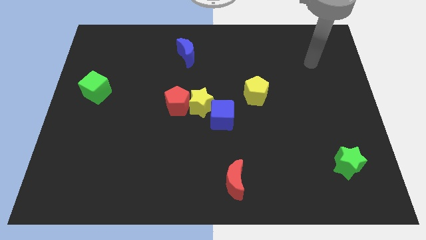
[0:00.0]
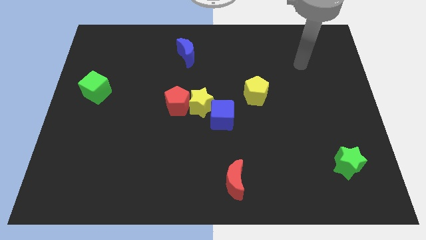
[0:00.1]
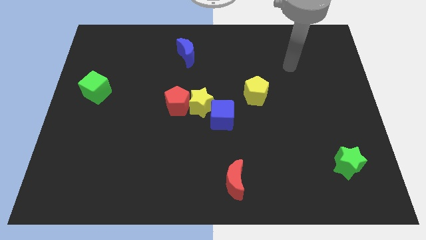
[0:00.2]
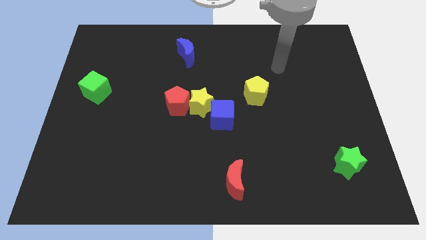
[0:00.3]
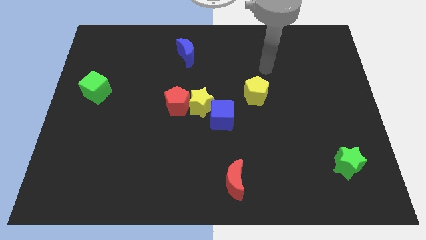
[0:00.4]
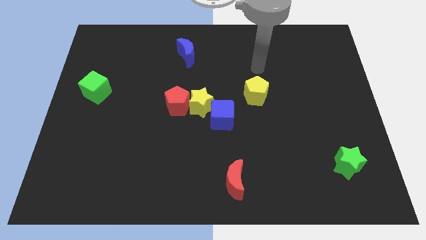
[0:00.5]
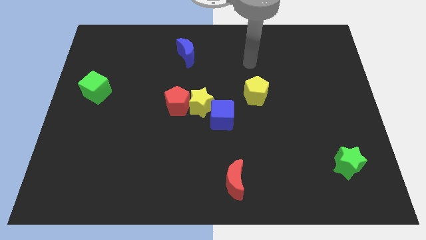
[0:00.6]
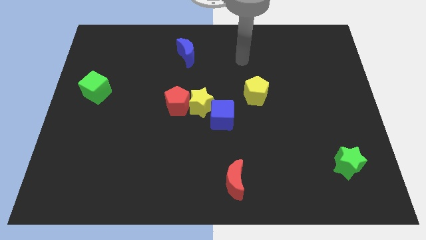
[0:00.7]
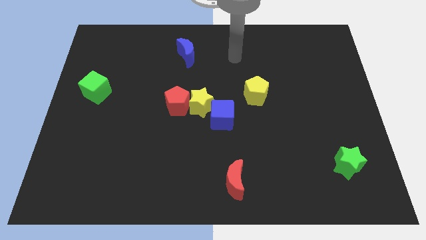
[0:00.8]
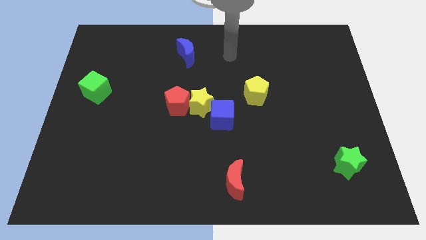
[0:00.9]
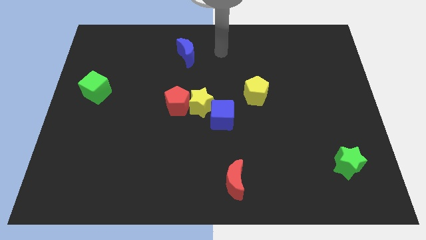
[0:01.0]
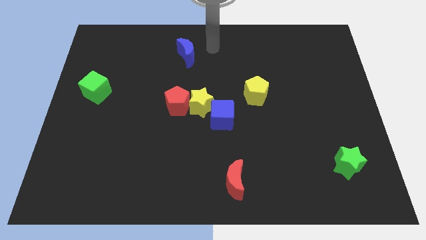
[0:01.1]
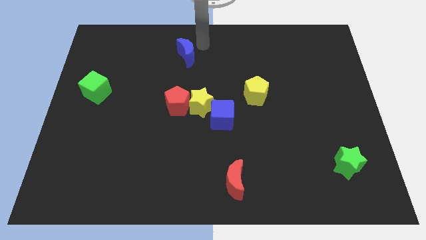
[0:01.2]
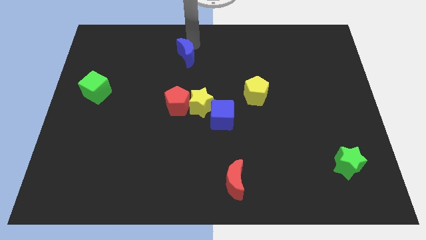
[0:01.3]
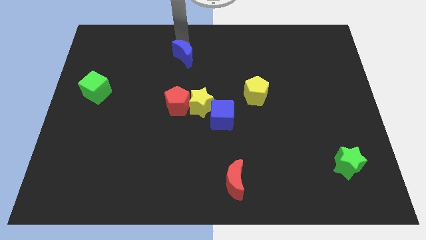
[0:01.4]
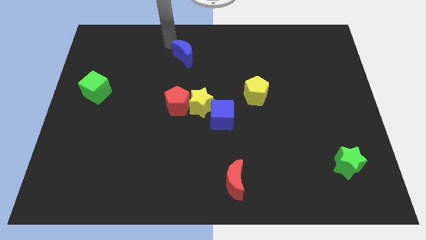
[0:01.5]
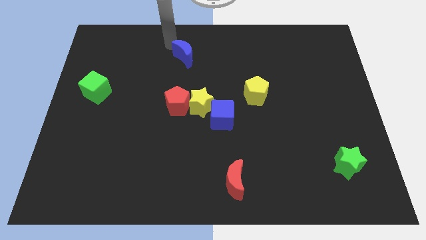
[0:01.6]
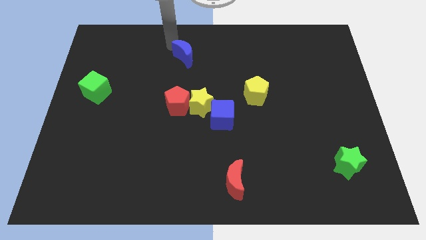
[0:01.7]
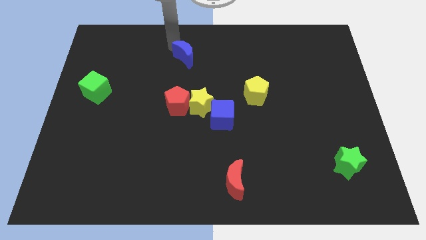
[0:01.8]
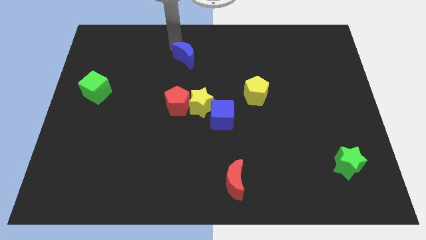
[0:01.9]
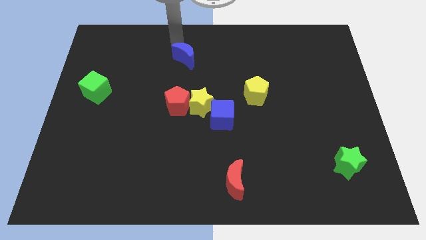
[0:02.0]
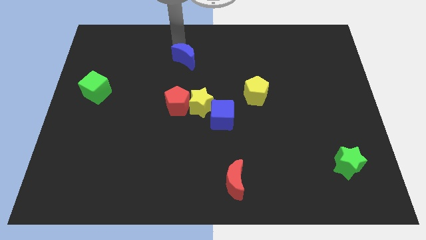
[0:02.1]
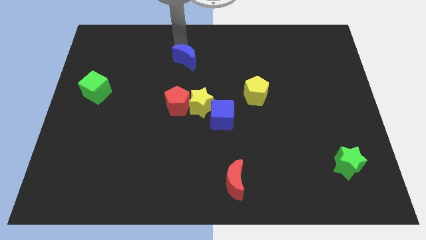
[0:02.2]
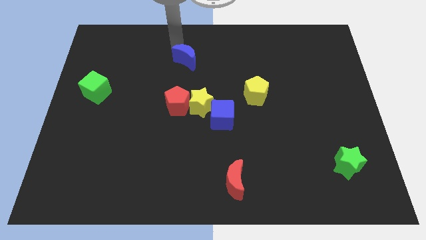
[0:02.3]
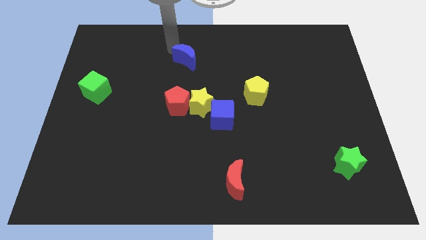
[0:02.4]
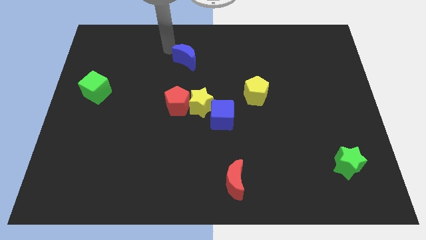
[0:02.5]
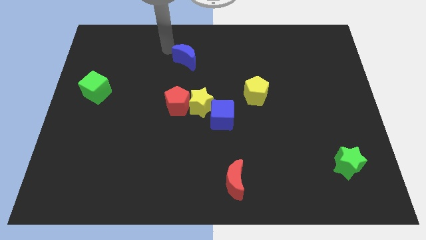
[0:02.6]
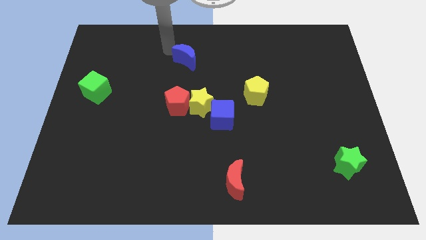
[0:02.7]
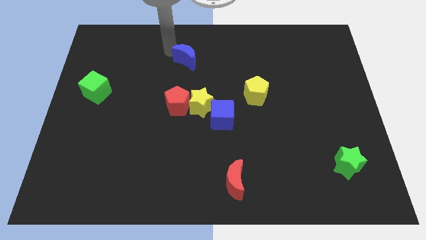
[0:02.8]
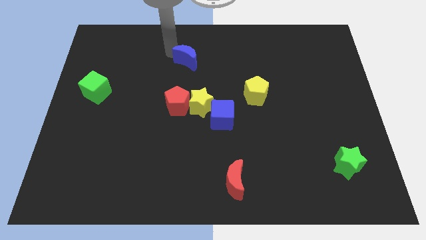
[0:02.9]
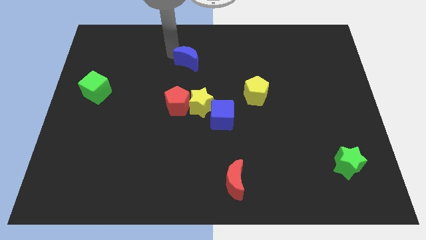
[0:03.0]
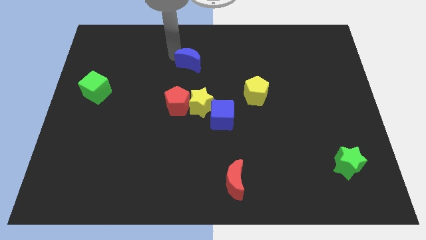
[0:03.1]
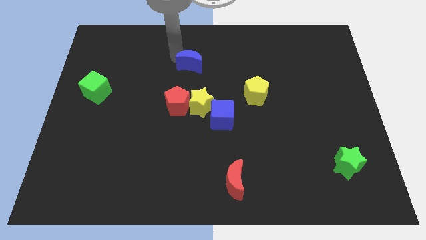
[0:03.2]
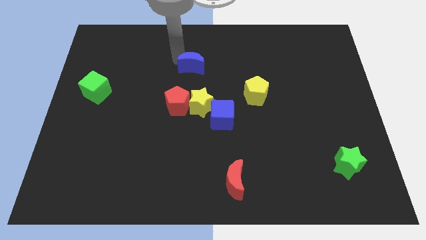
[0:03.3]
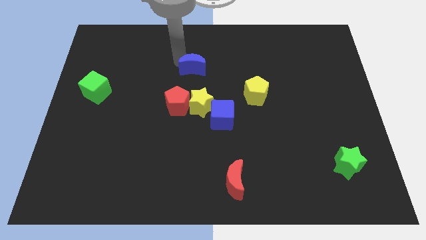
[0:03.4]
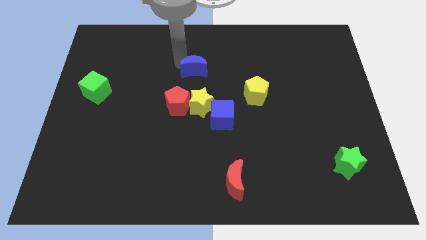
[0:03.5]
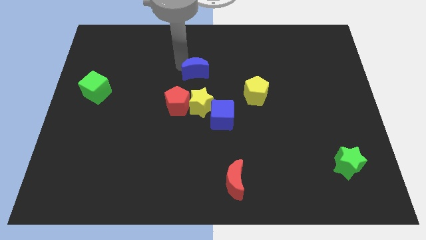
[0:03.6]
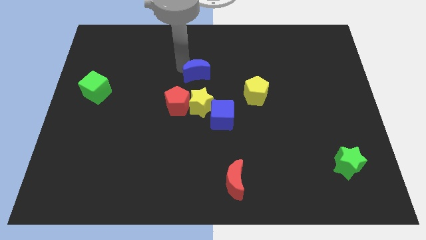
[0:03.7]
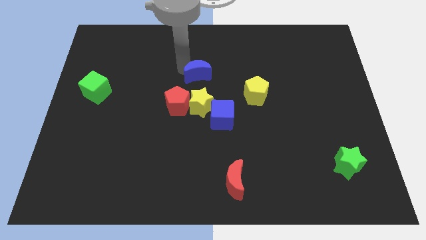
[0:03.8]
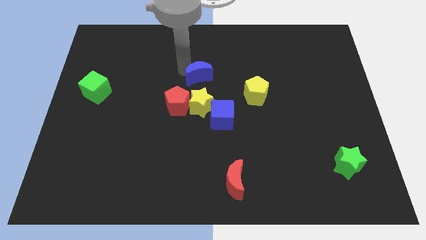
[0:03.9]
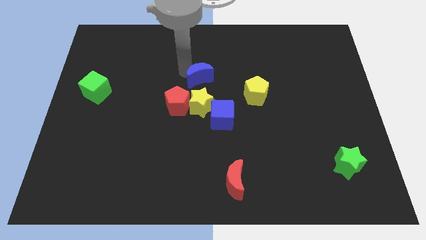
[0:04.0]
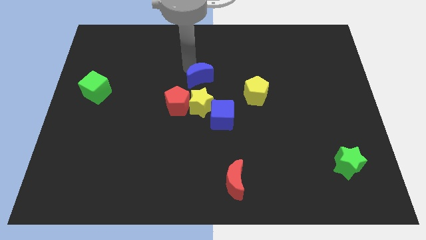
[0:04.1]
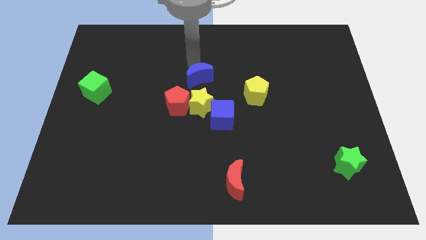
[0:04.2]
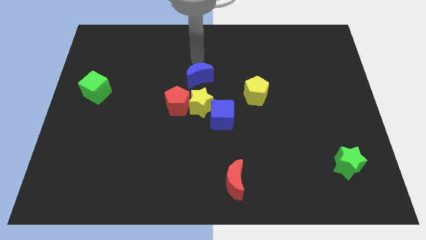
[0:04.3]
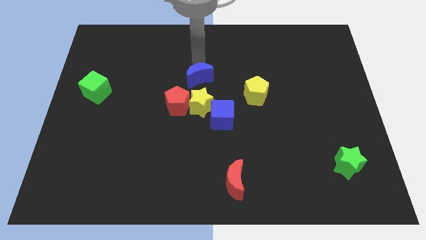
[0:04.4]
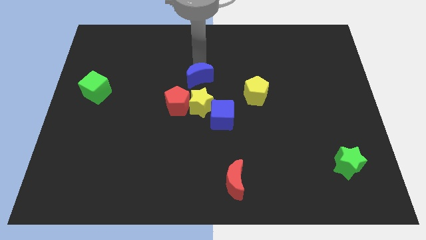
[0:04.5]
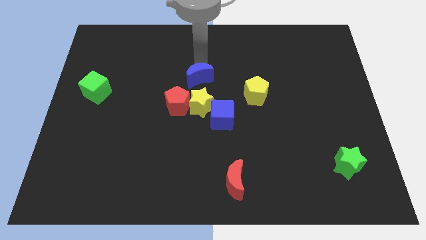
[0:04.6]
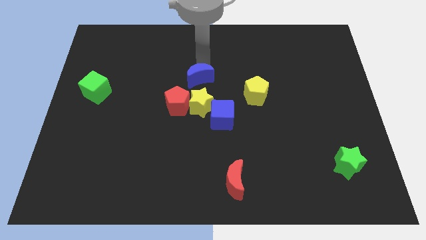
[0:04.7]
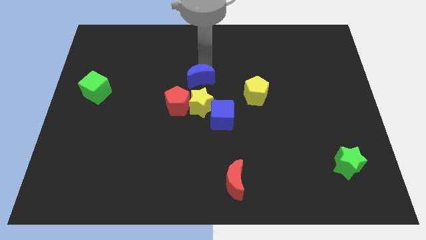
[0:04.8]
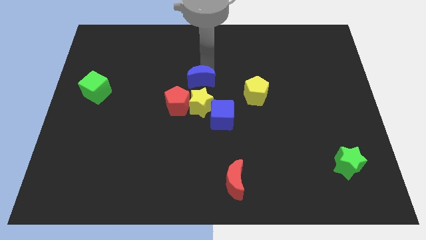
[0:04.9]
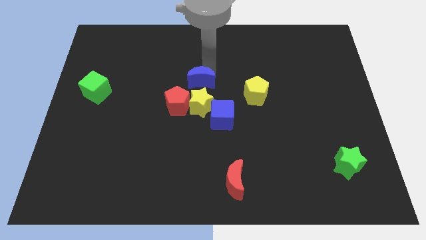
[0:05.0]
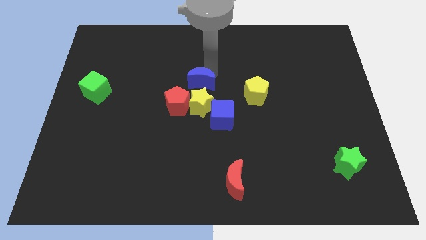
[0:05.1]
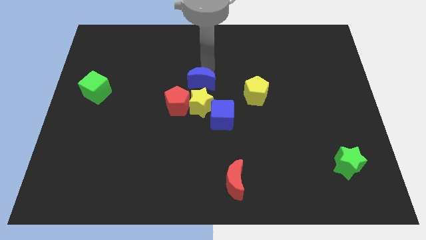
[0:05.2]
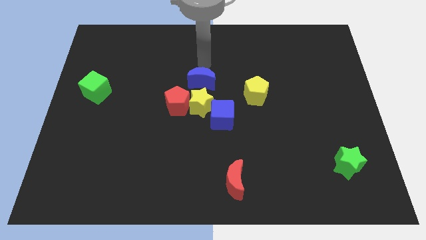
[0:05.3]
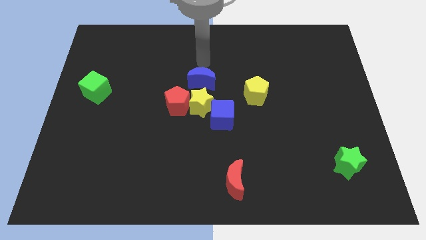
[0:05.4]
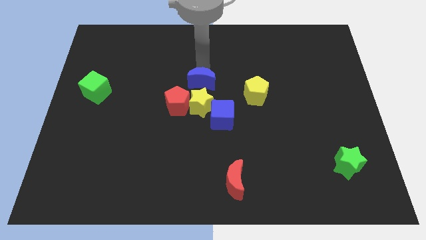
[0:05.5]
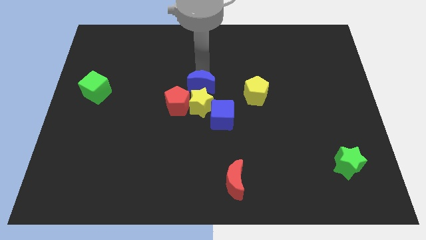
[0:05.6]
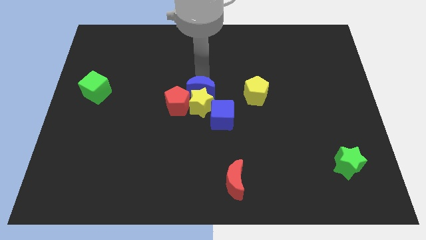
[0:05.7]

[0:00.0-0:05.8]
put the blue moon close to the yellow star

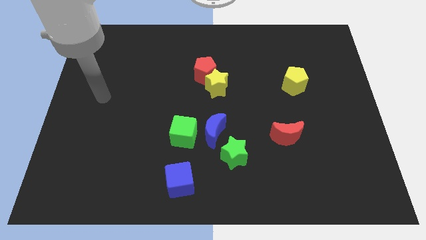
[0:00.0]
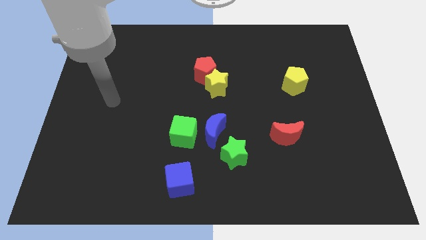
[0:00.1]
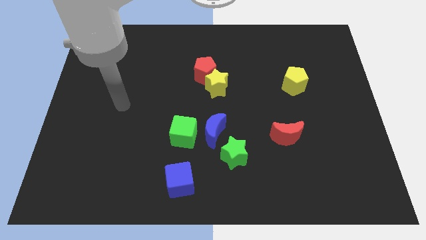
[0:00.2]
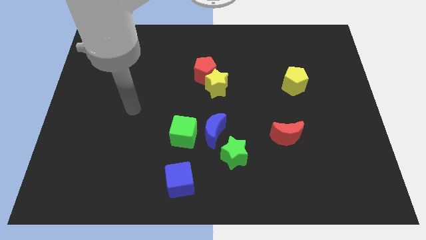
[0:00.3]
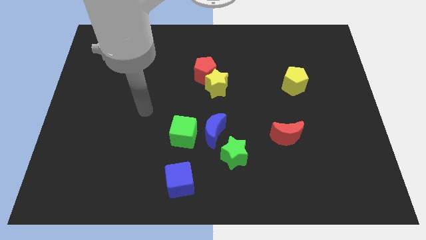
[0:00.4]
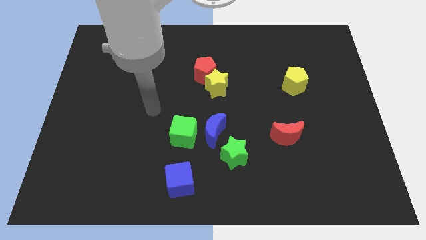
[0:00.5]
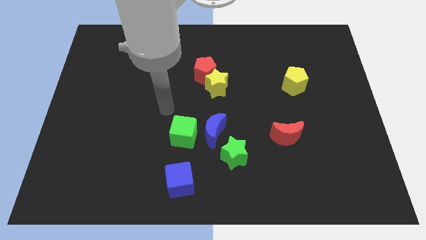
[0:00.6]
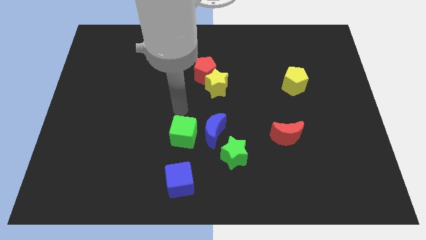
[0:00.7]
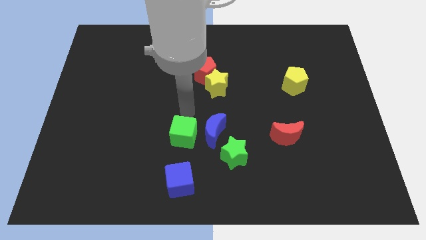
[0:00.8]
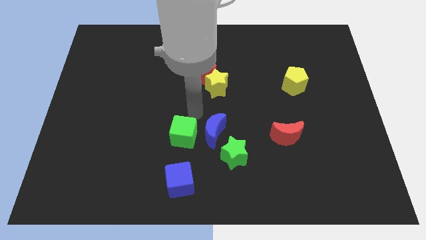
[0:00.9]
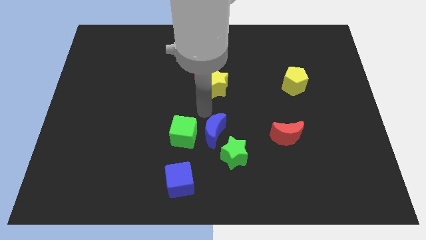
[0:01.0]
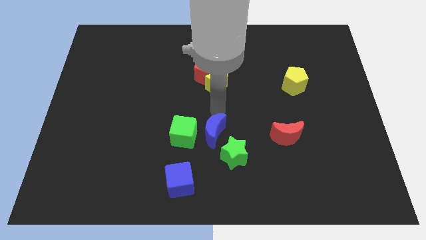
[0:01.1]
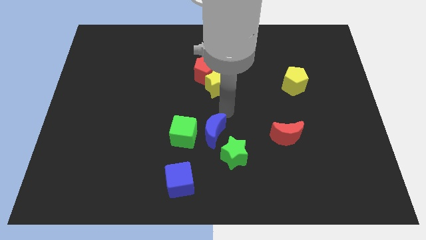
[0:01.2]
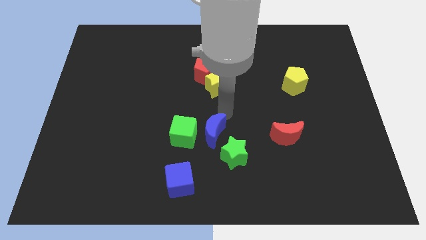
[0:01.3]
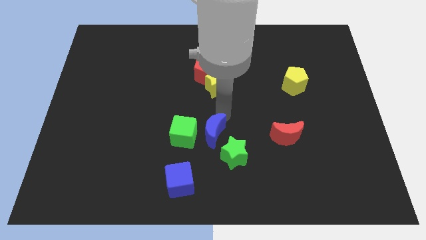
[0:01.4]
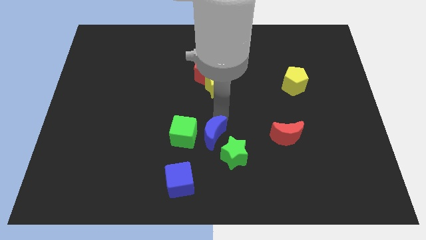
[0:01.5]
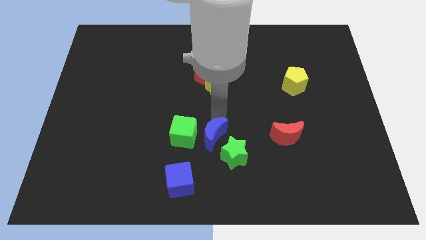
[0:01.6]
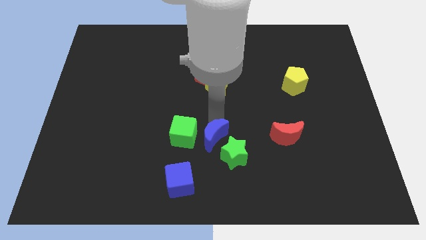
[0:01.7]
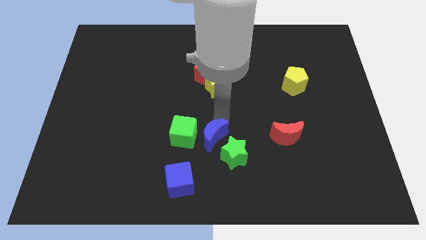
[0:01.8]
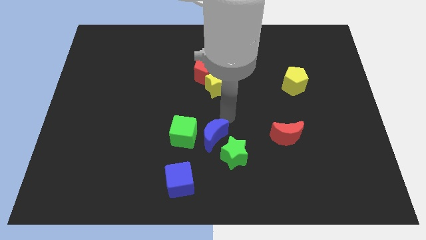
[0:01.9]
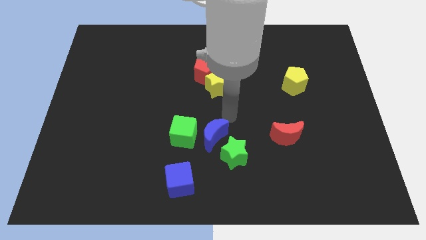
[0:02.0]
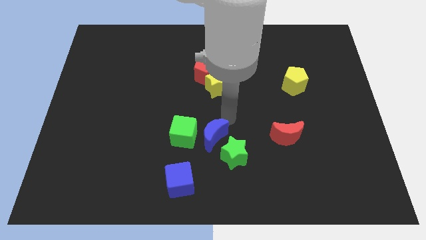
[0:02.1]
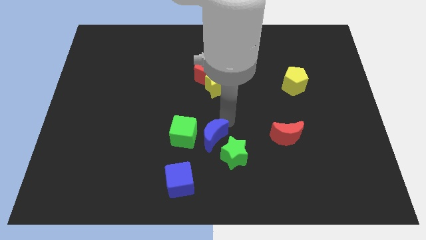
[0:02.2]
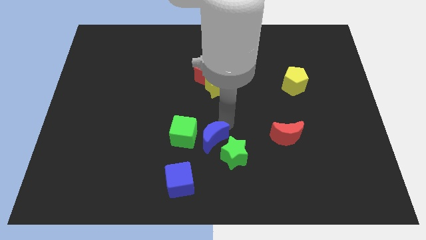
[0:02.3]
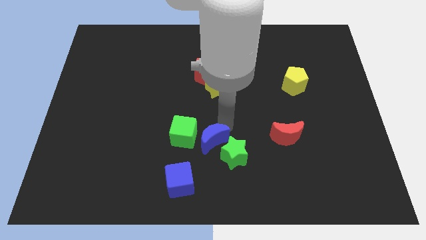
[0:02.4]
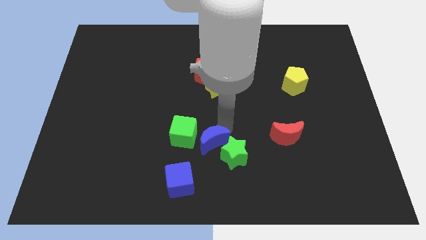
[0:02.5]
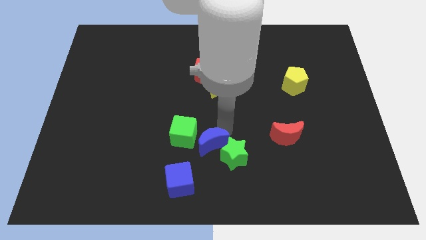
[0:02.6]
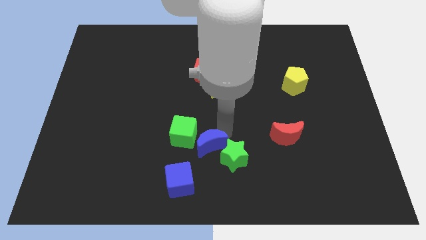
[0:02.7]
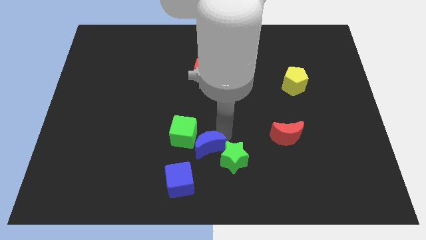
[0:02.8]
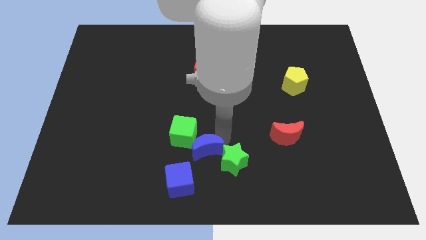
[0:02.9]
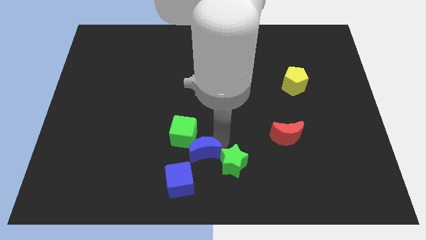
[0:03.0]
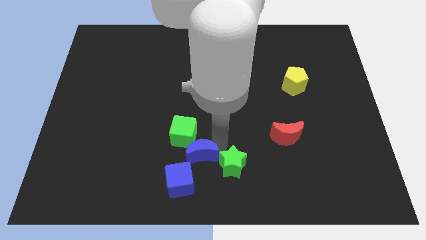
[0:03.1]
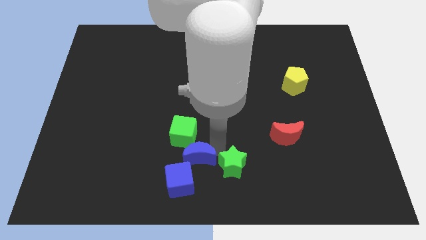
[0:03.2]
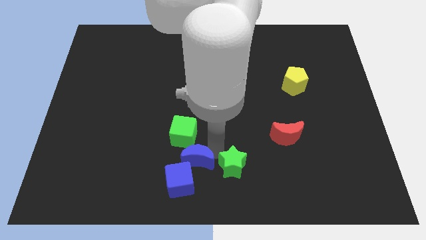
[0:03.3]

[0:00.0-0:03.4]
put the blue moon next to the blue cube
